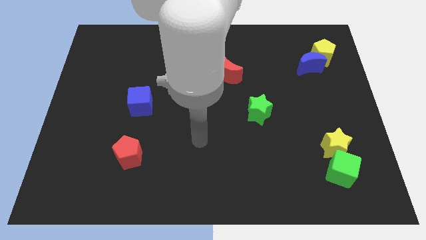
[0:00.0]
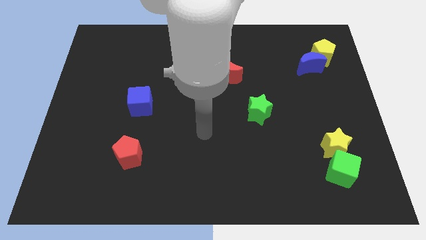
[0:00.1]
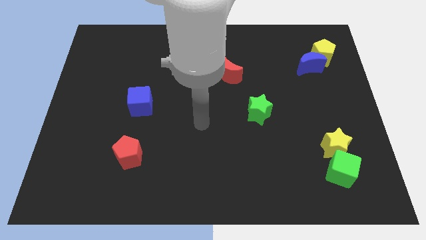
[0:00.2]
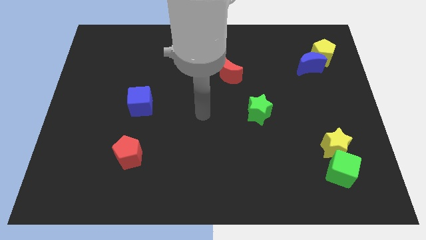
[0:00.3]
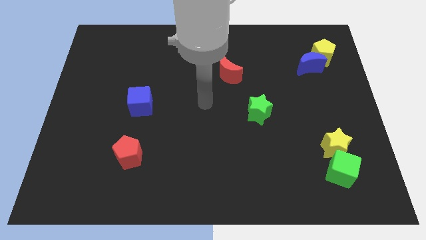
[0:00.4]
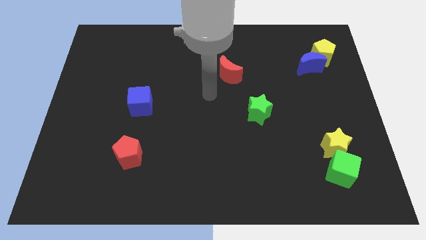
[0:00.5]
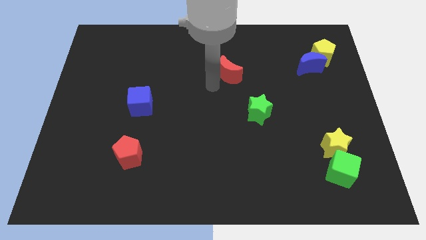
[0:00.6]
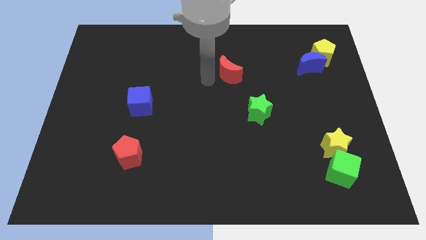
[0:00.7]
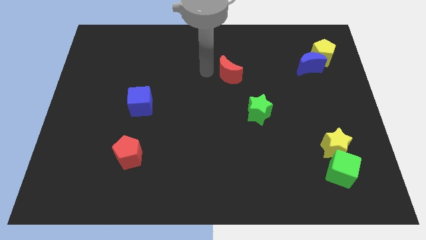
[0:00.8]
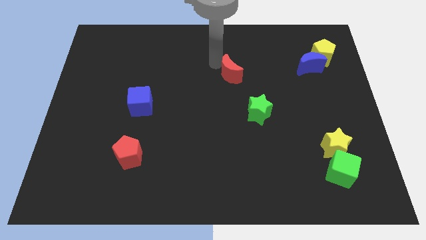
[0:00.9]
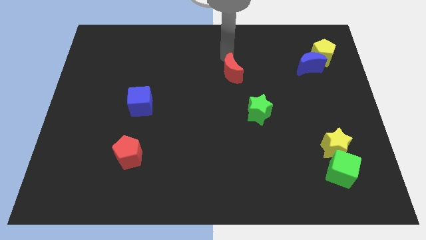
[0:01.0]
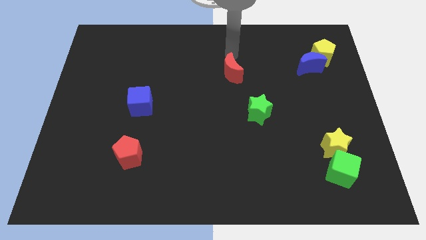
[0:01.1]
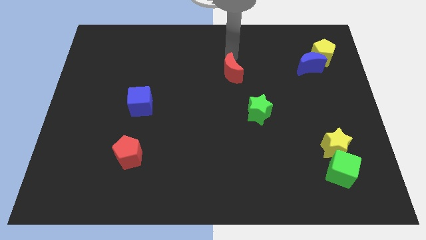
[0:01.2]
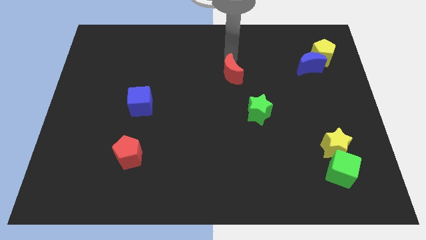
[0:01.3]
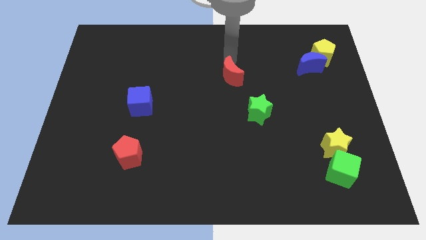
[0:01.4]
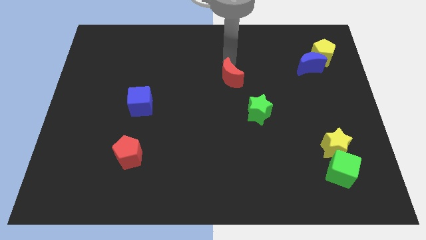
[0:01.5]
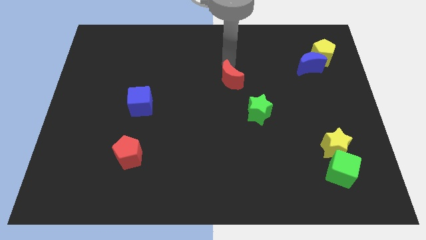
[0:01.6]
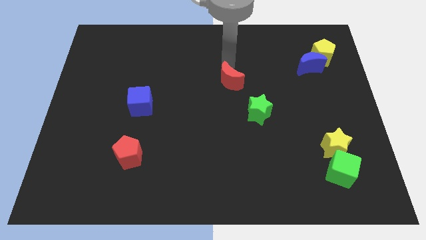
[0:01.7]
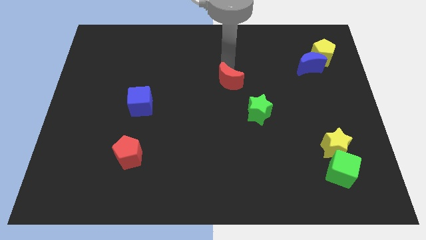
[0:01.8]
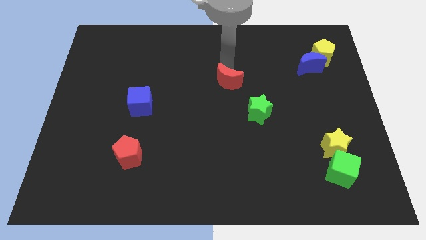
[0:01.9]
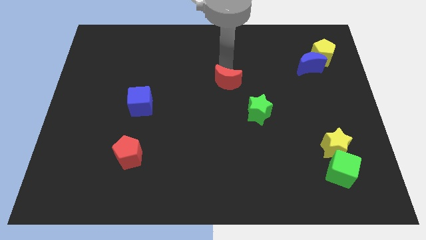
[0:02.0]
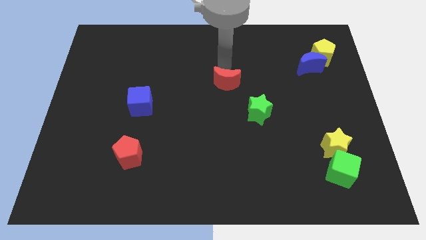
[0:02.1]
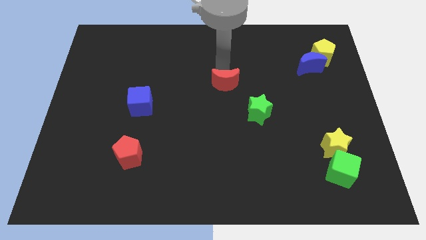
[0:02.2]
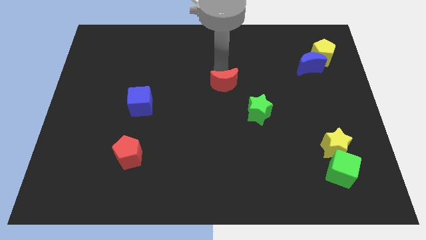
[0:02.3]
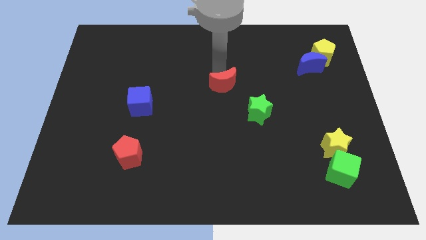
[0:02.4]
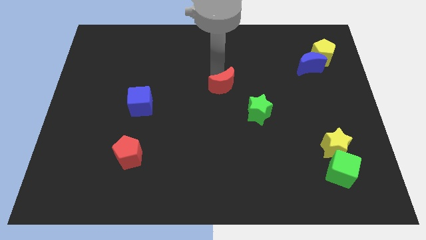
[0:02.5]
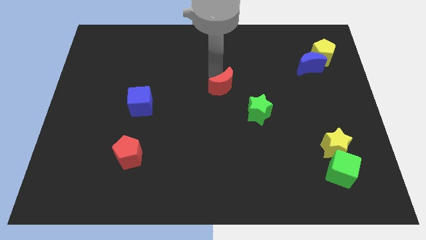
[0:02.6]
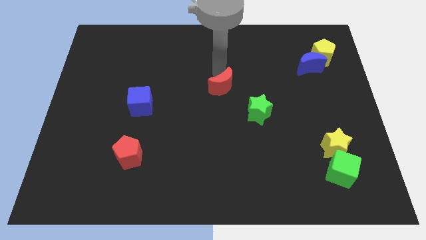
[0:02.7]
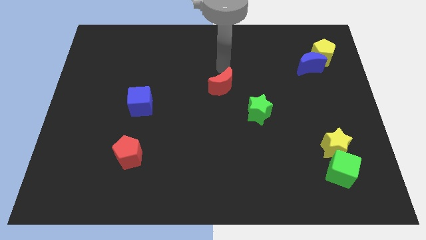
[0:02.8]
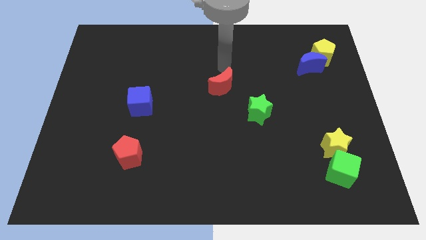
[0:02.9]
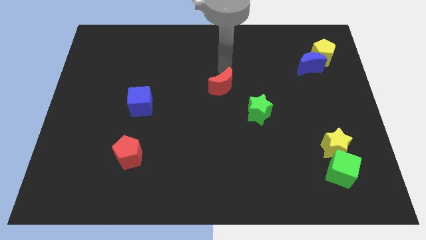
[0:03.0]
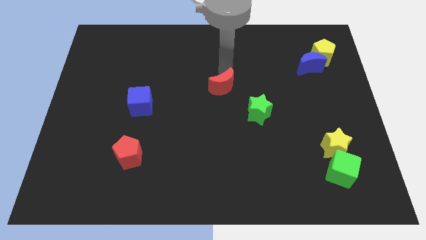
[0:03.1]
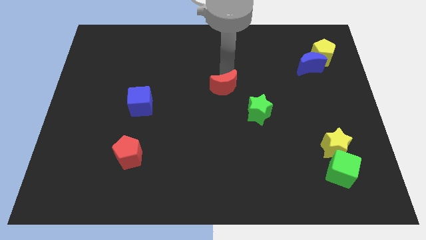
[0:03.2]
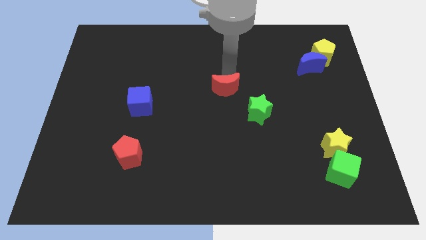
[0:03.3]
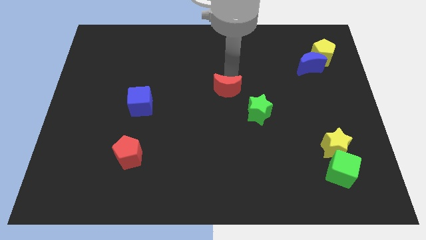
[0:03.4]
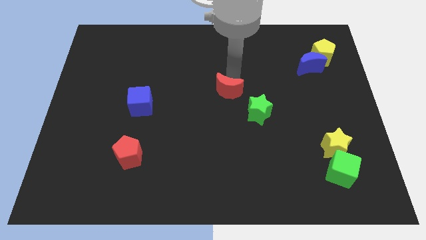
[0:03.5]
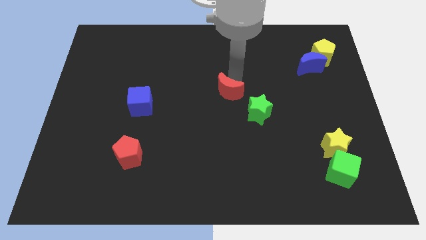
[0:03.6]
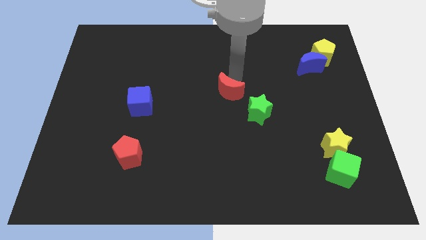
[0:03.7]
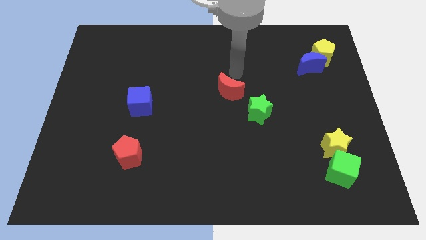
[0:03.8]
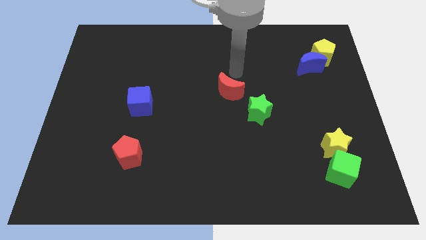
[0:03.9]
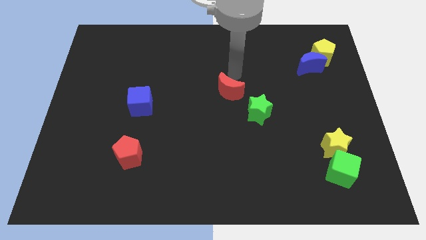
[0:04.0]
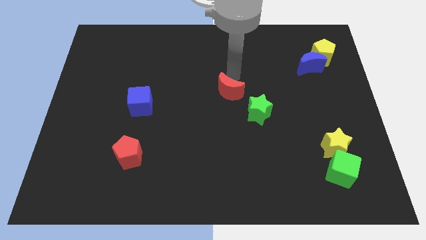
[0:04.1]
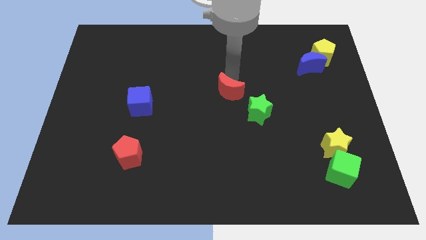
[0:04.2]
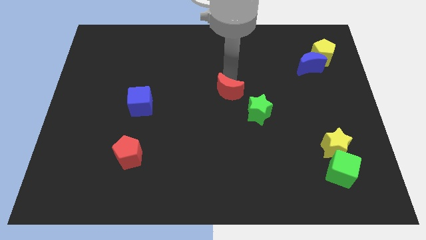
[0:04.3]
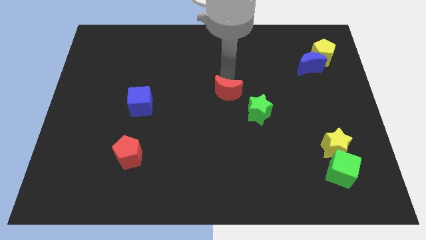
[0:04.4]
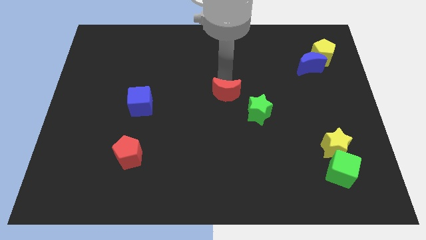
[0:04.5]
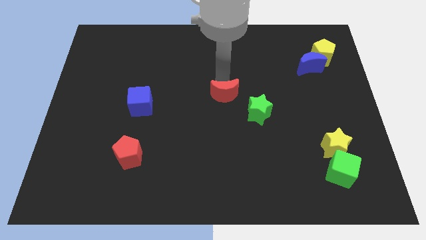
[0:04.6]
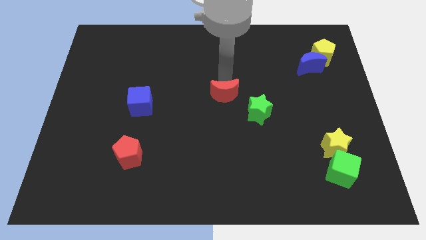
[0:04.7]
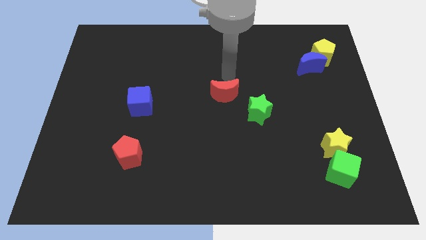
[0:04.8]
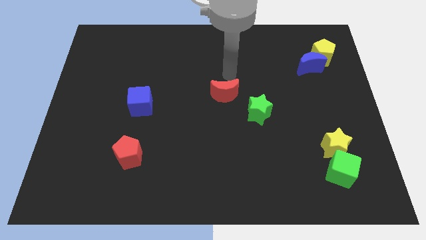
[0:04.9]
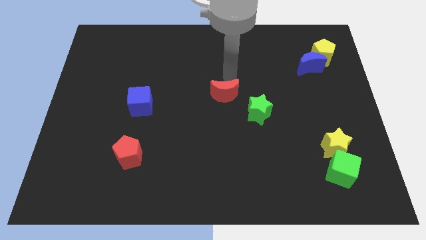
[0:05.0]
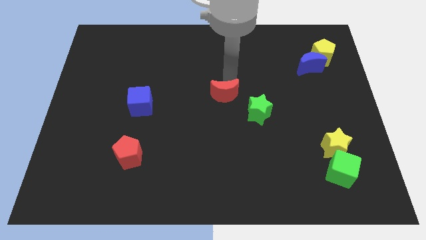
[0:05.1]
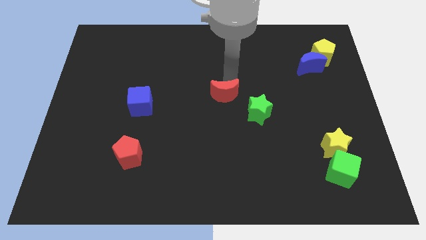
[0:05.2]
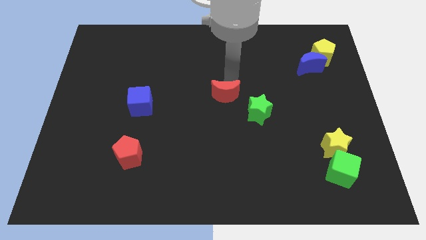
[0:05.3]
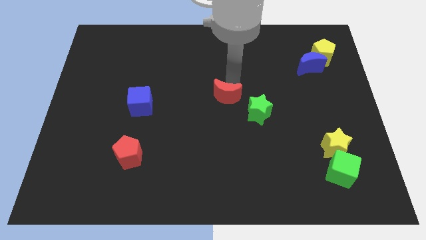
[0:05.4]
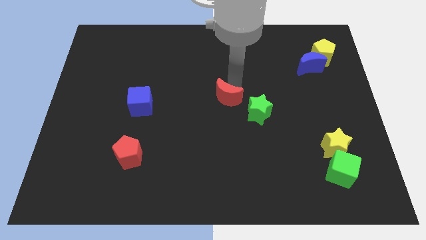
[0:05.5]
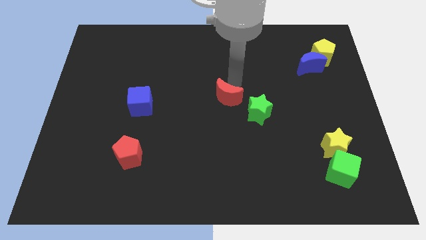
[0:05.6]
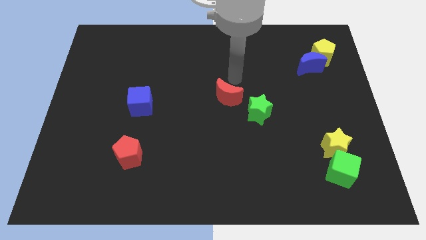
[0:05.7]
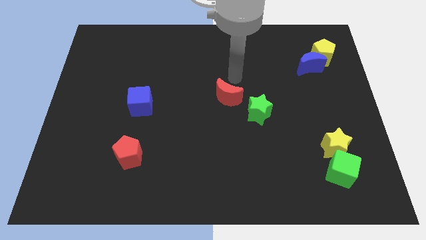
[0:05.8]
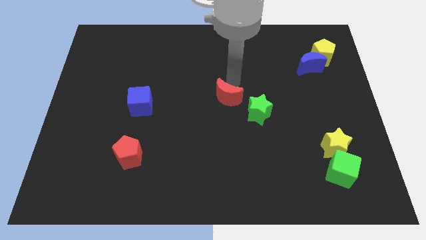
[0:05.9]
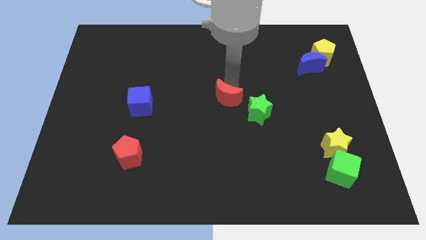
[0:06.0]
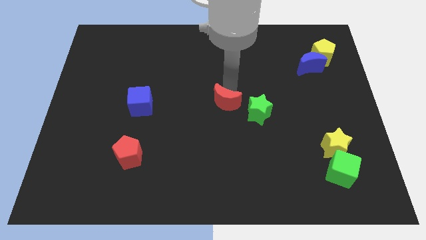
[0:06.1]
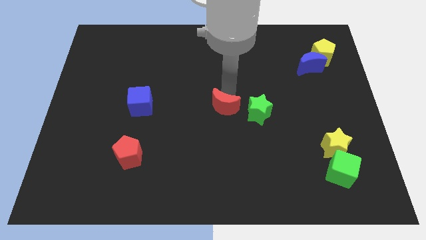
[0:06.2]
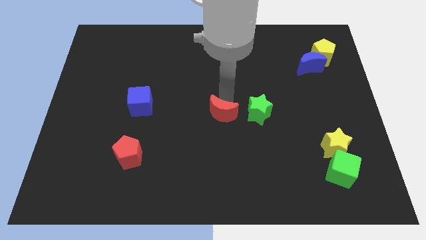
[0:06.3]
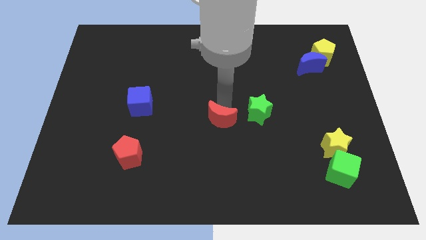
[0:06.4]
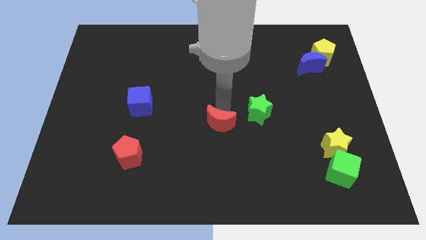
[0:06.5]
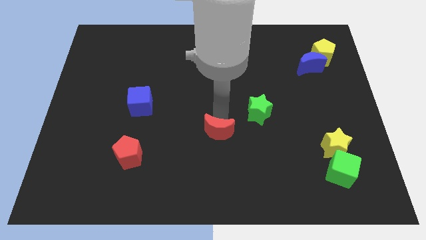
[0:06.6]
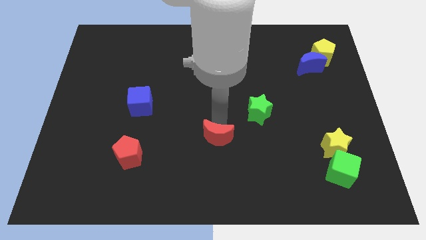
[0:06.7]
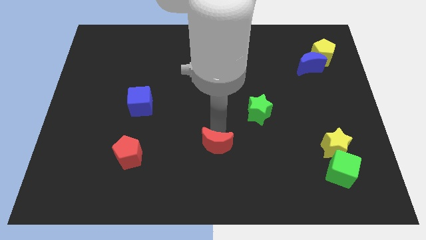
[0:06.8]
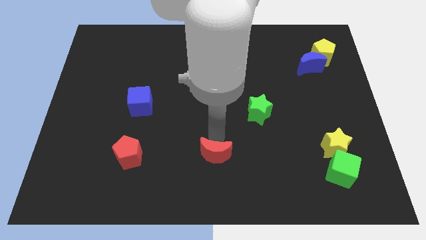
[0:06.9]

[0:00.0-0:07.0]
put the red moon to the bottom
